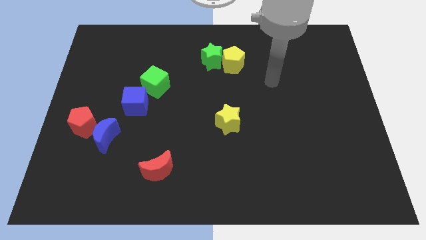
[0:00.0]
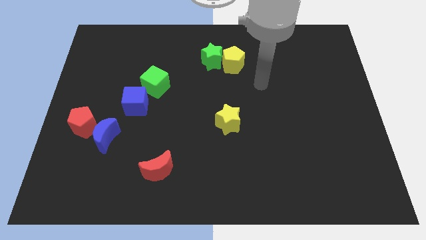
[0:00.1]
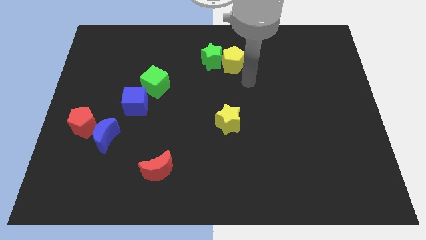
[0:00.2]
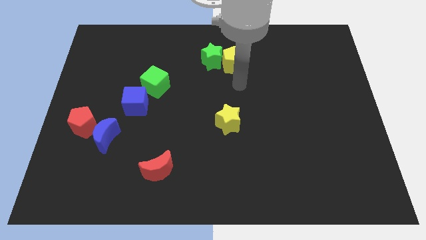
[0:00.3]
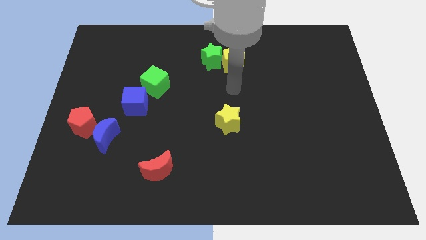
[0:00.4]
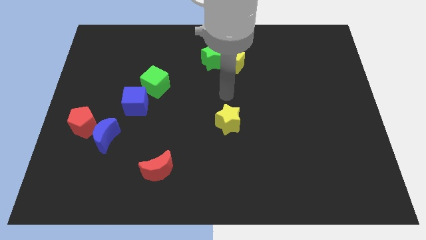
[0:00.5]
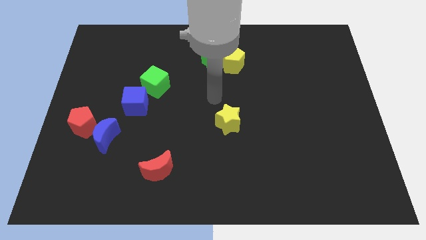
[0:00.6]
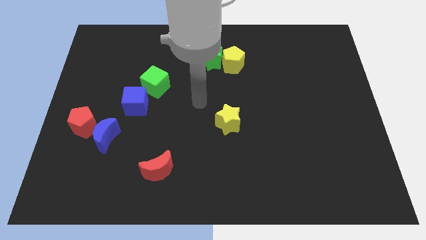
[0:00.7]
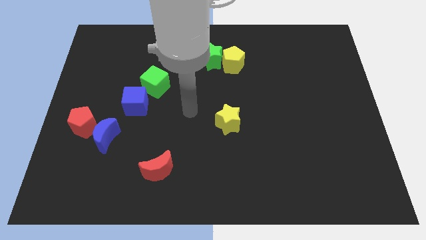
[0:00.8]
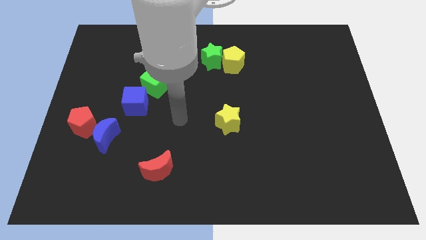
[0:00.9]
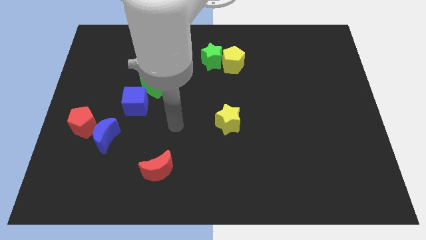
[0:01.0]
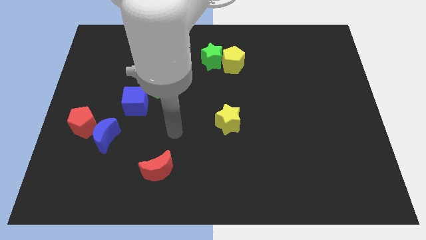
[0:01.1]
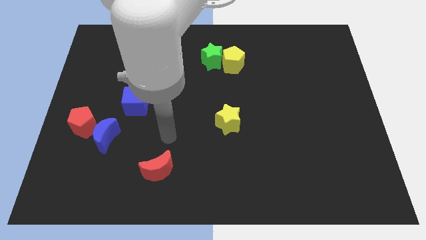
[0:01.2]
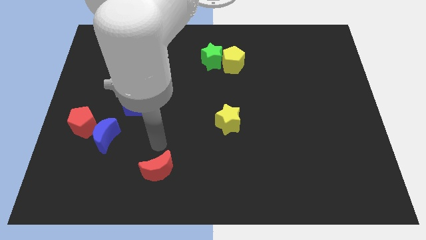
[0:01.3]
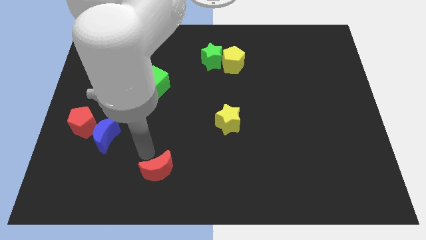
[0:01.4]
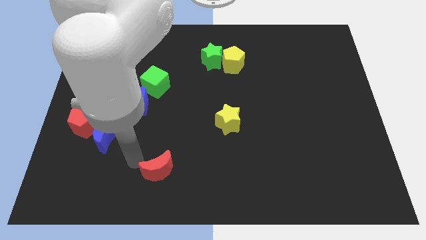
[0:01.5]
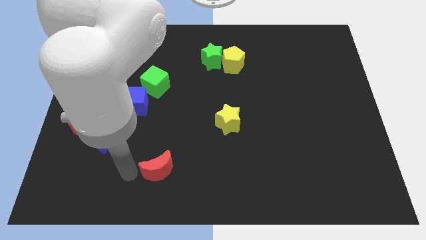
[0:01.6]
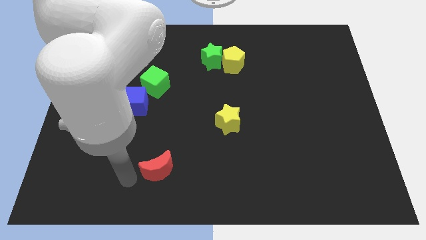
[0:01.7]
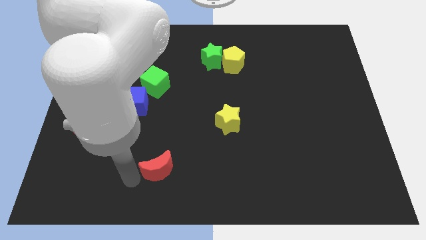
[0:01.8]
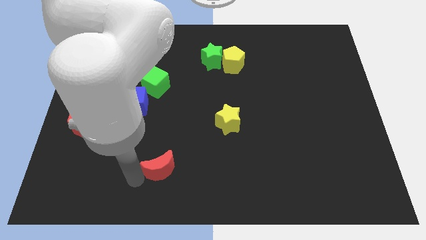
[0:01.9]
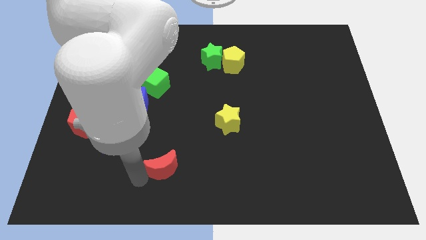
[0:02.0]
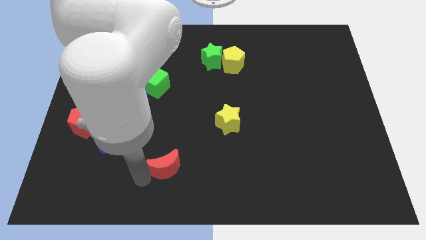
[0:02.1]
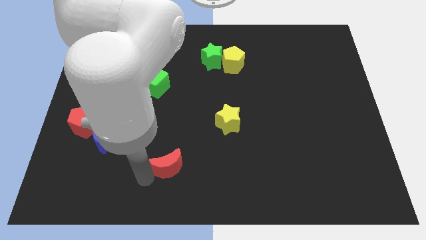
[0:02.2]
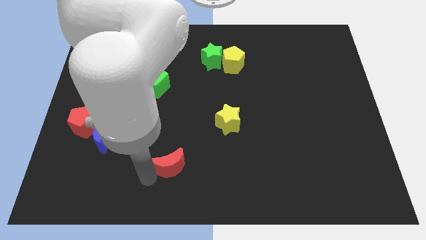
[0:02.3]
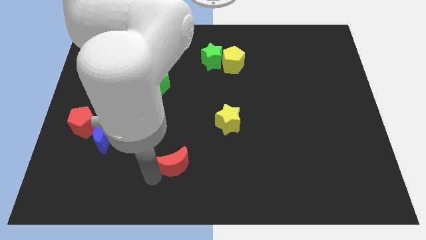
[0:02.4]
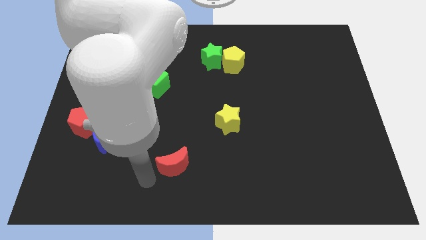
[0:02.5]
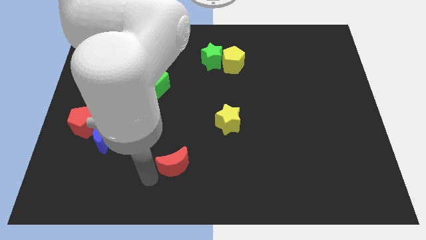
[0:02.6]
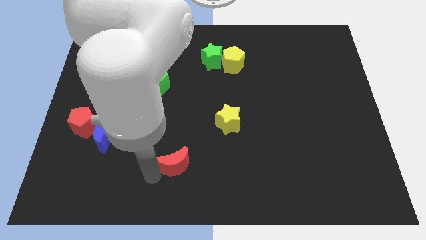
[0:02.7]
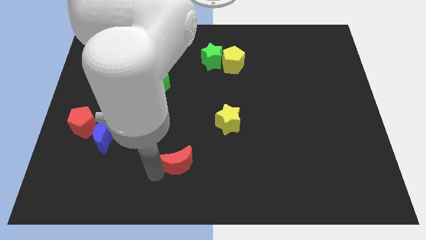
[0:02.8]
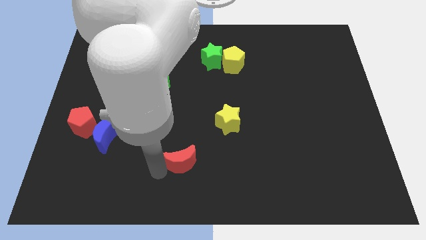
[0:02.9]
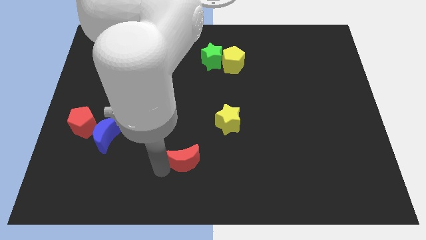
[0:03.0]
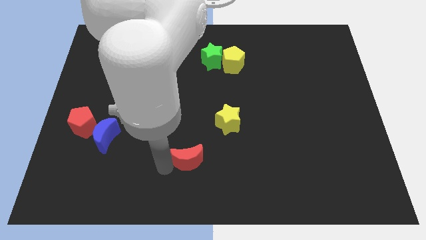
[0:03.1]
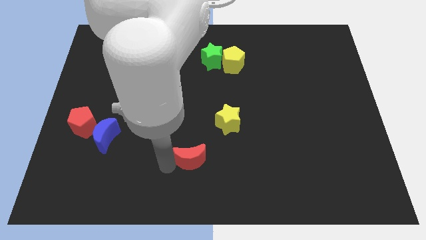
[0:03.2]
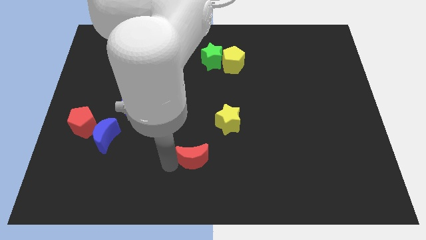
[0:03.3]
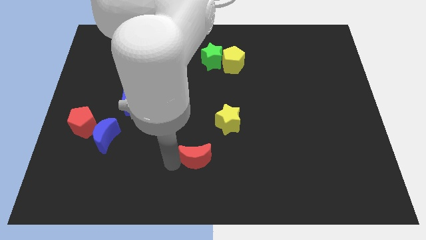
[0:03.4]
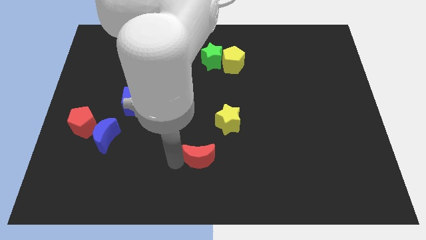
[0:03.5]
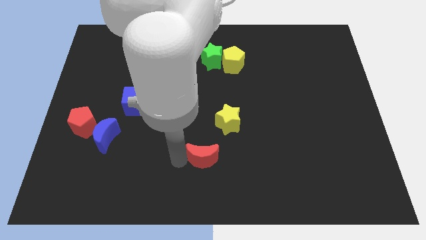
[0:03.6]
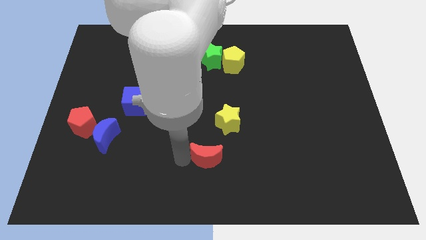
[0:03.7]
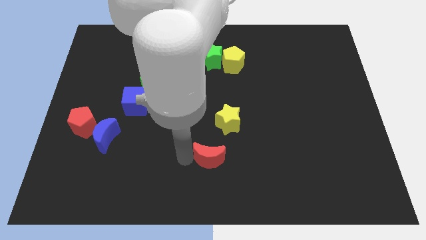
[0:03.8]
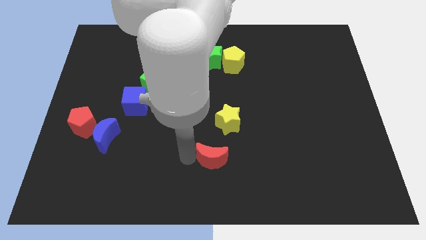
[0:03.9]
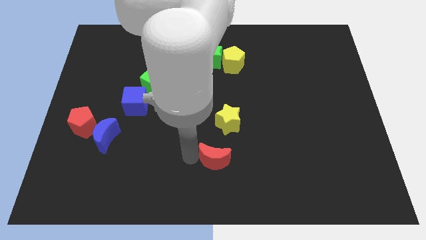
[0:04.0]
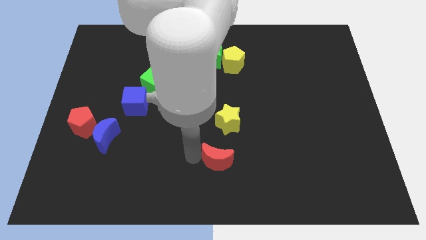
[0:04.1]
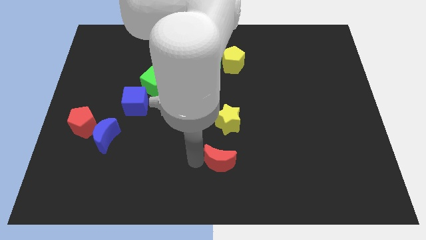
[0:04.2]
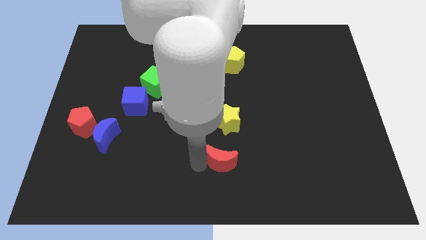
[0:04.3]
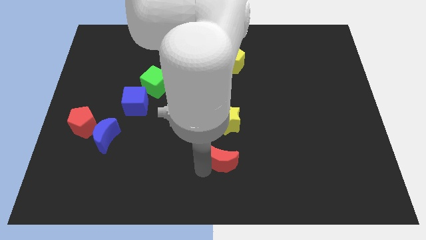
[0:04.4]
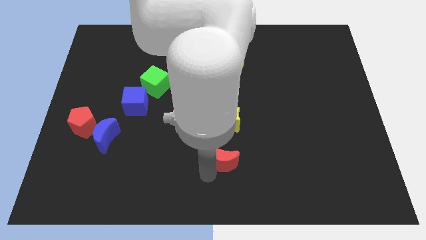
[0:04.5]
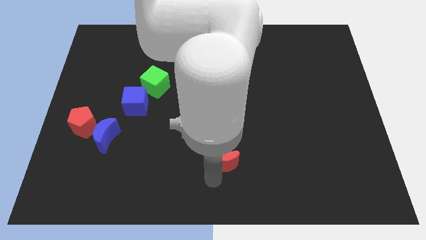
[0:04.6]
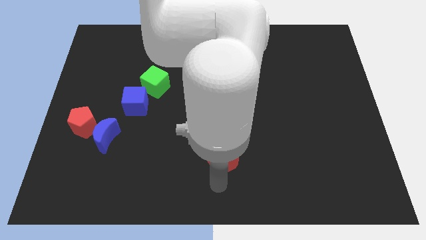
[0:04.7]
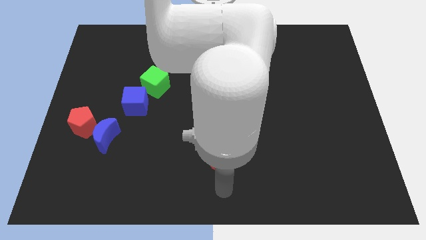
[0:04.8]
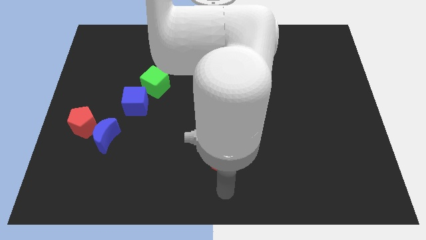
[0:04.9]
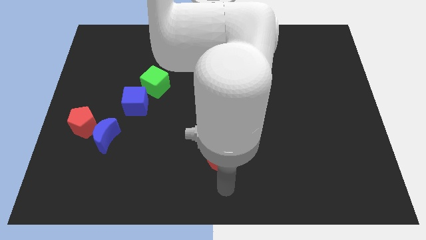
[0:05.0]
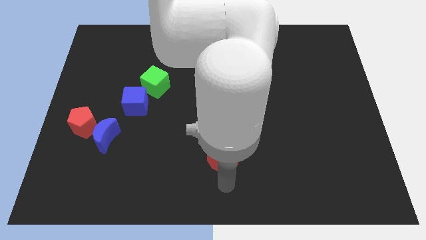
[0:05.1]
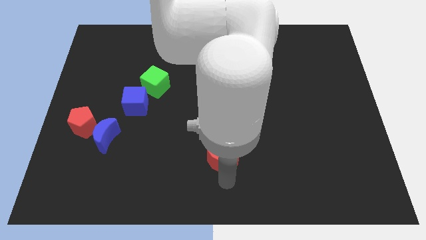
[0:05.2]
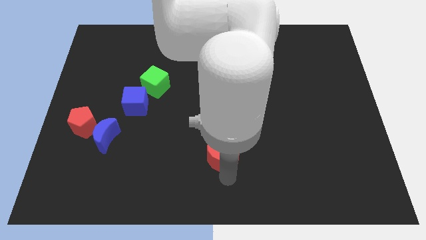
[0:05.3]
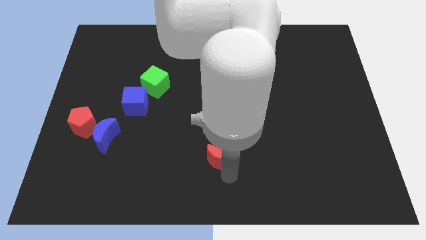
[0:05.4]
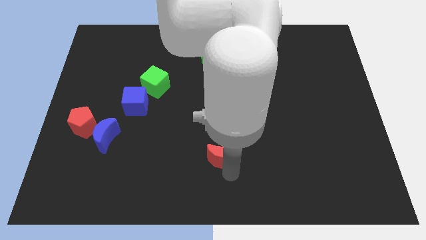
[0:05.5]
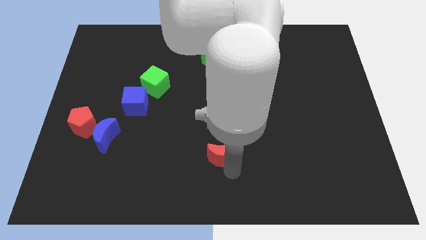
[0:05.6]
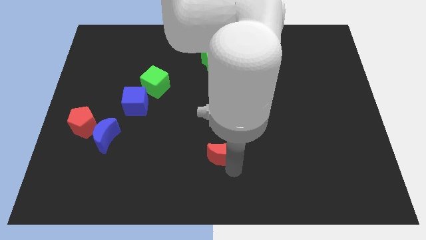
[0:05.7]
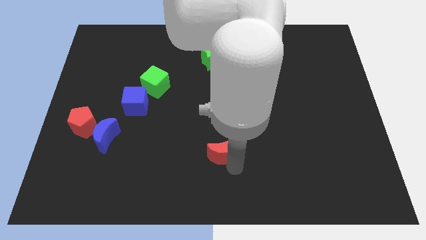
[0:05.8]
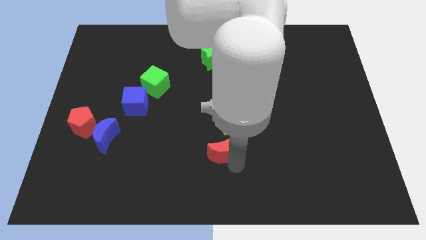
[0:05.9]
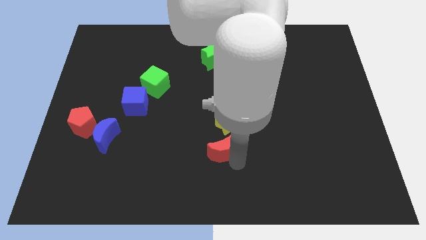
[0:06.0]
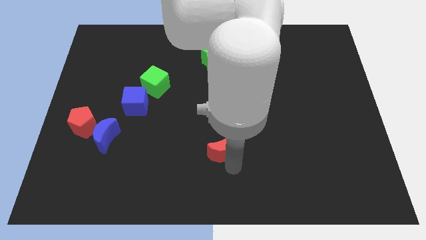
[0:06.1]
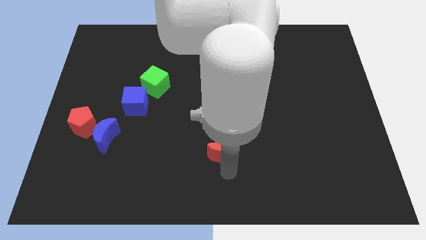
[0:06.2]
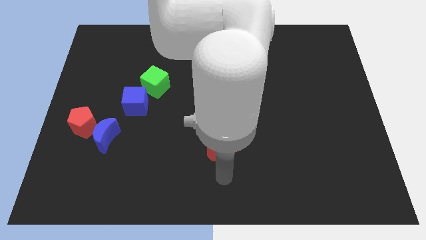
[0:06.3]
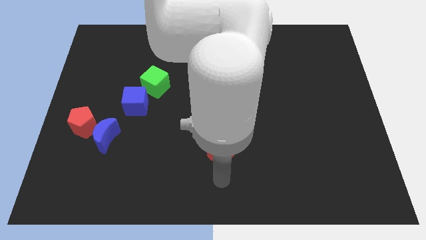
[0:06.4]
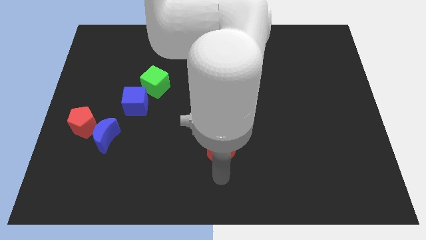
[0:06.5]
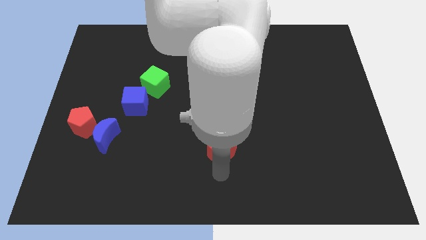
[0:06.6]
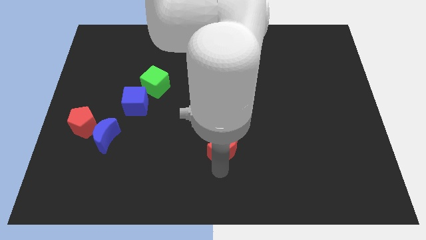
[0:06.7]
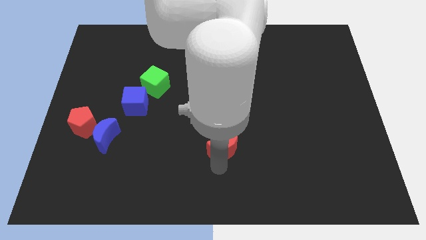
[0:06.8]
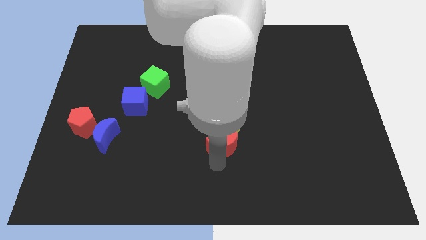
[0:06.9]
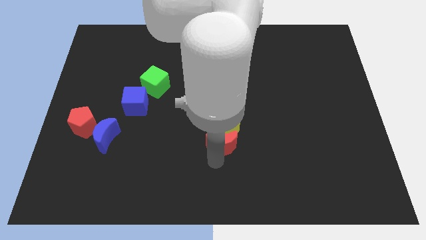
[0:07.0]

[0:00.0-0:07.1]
slide the red moon next to the yellow star
